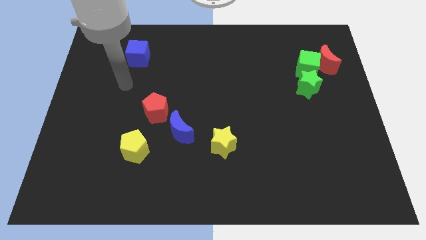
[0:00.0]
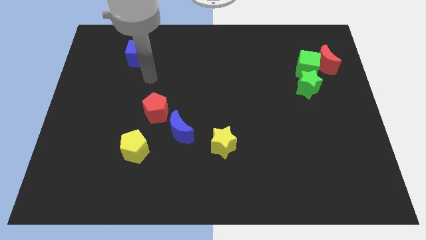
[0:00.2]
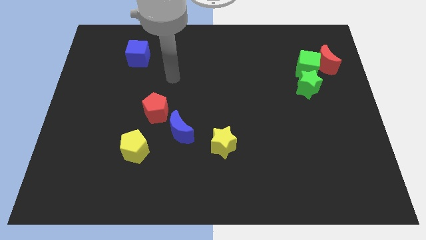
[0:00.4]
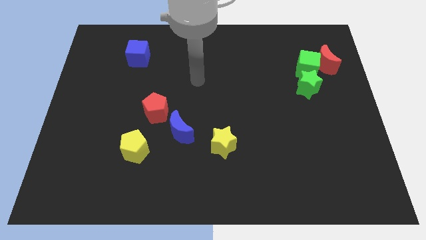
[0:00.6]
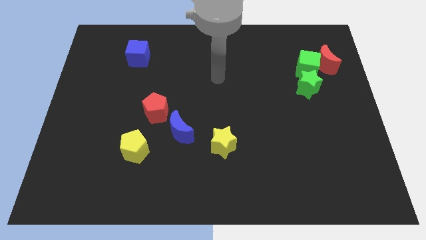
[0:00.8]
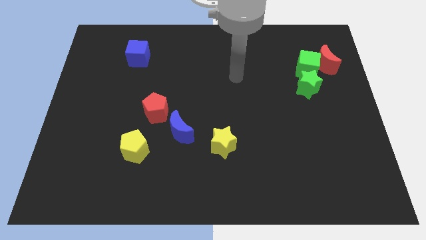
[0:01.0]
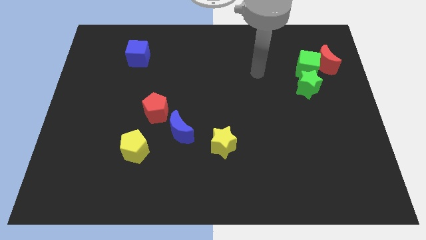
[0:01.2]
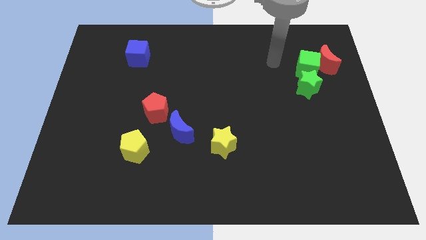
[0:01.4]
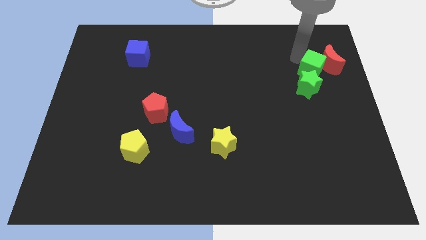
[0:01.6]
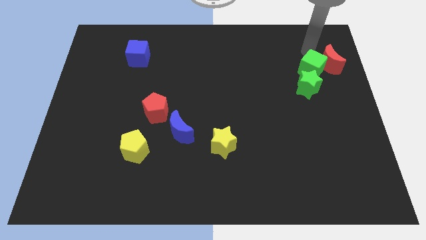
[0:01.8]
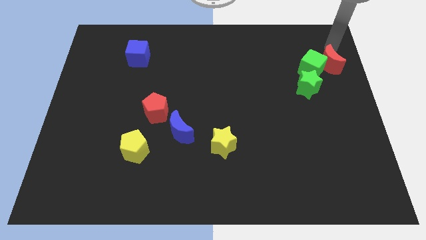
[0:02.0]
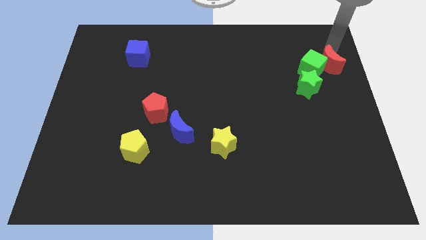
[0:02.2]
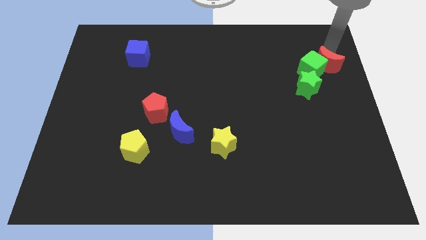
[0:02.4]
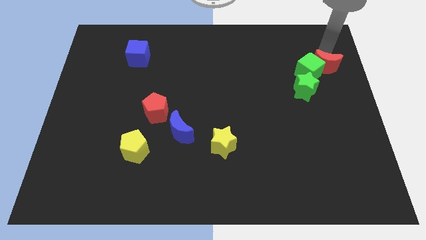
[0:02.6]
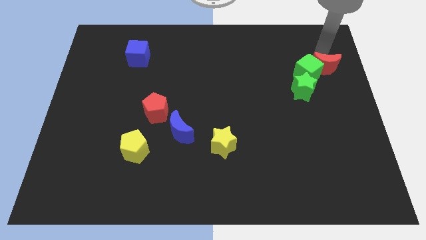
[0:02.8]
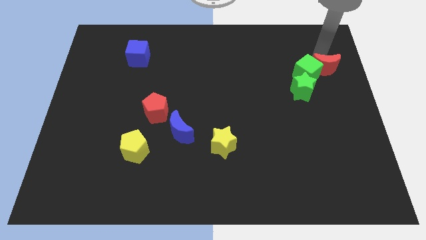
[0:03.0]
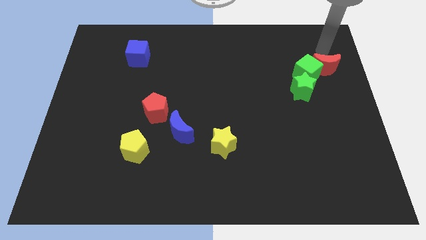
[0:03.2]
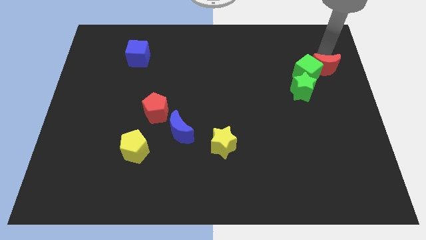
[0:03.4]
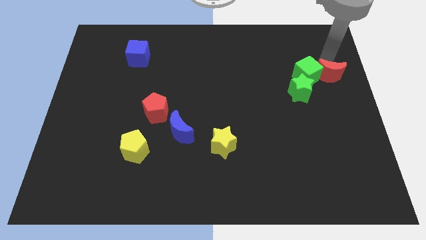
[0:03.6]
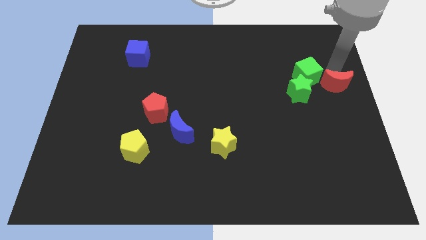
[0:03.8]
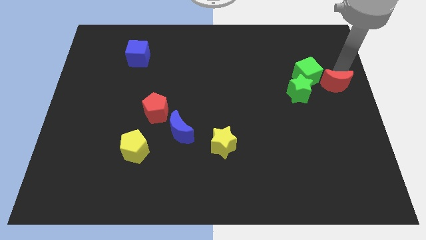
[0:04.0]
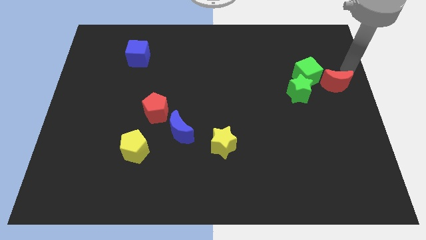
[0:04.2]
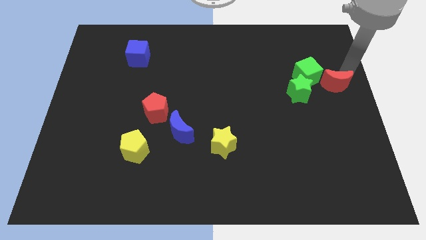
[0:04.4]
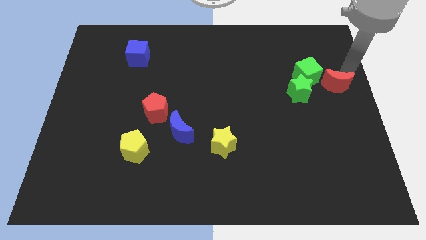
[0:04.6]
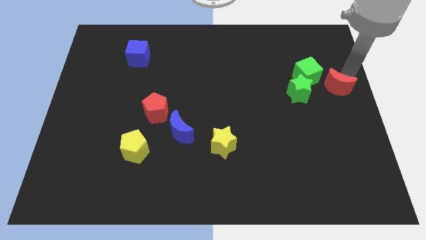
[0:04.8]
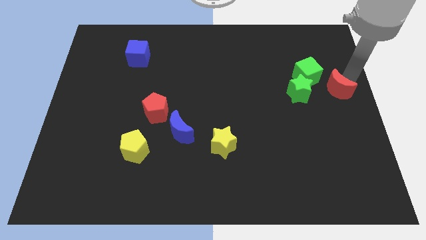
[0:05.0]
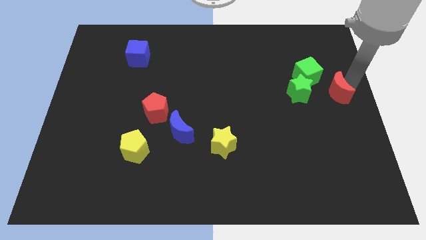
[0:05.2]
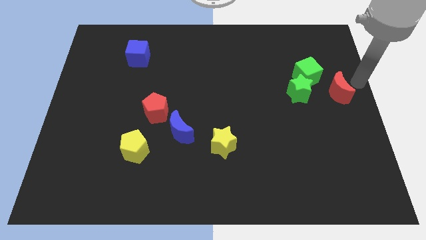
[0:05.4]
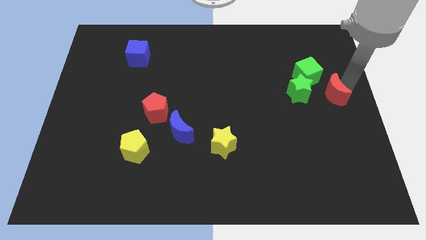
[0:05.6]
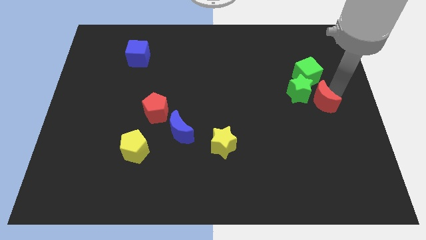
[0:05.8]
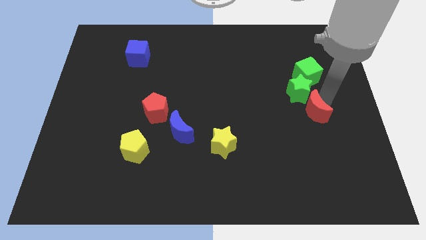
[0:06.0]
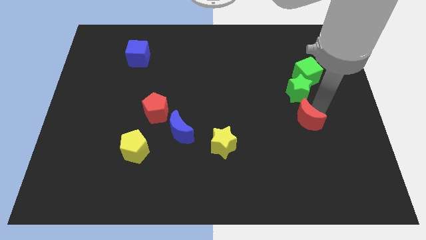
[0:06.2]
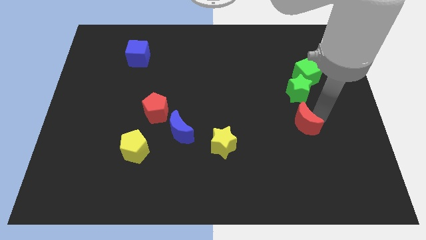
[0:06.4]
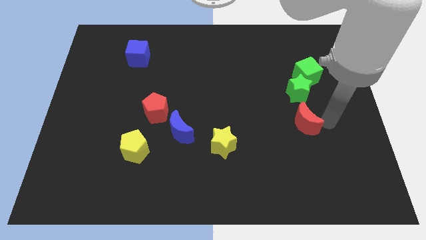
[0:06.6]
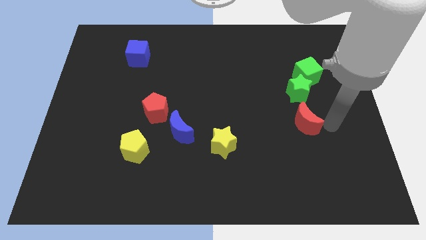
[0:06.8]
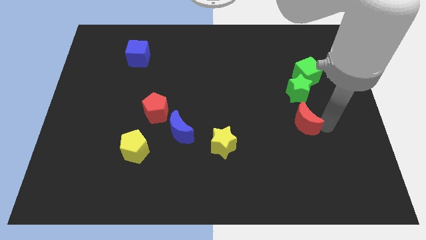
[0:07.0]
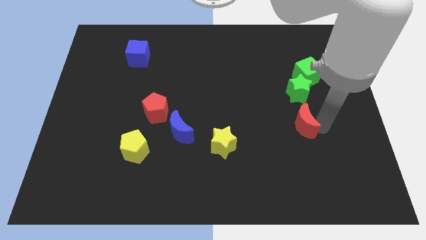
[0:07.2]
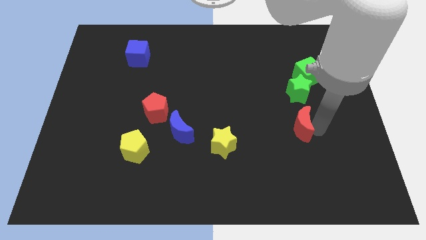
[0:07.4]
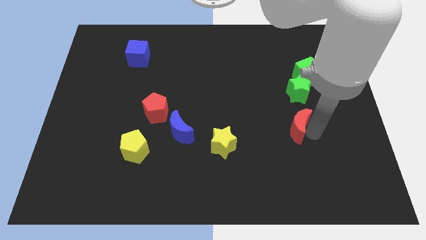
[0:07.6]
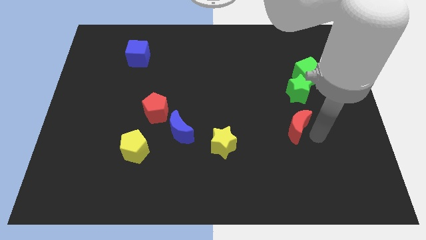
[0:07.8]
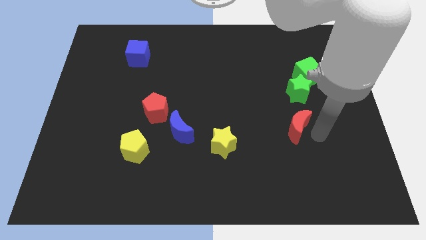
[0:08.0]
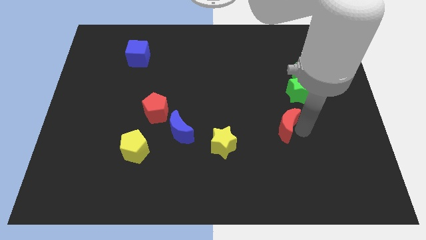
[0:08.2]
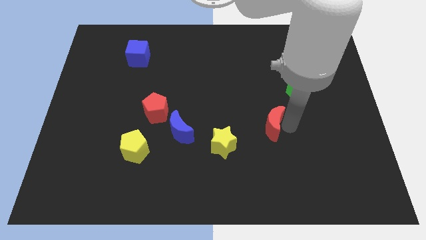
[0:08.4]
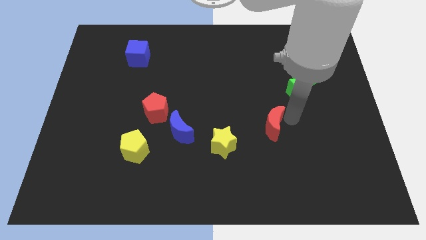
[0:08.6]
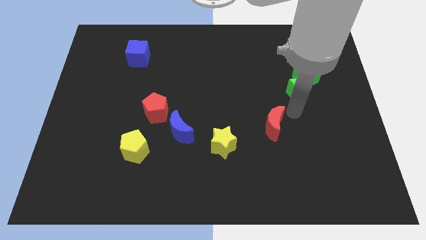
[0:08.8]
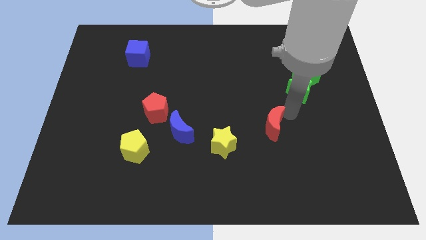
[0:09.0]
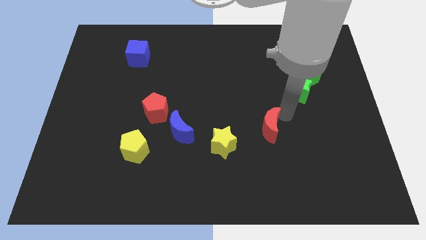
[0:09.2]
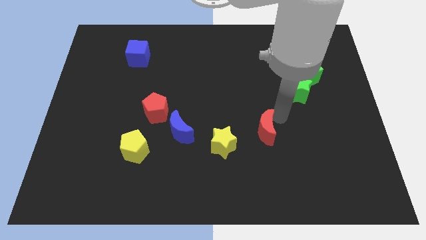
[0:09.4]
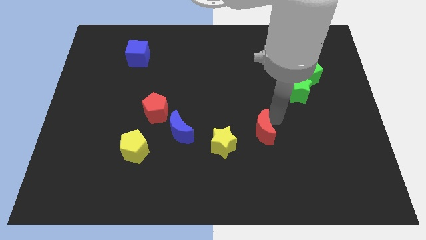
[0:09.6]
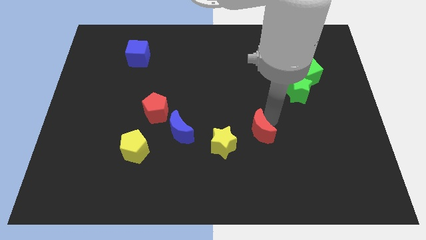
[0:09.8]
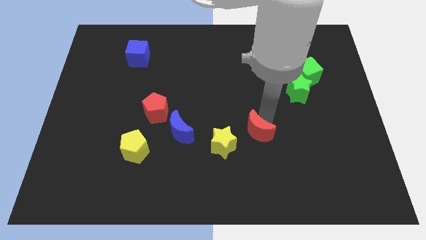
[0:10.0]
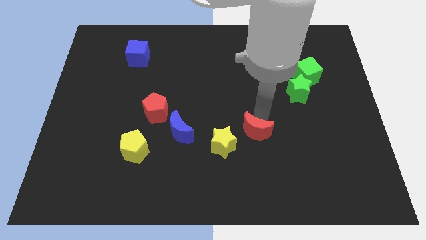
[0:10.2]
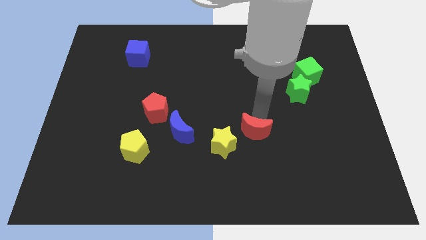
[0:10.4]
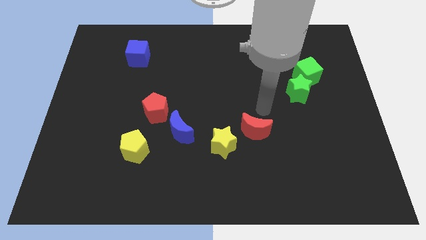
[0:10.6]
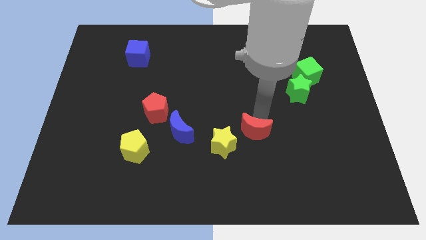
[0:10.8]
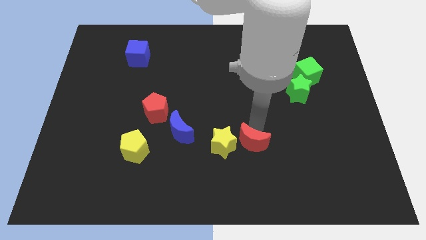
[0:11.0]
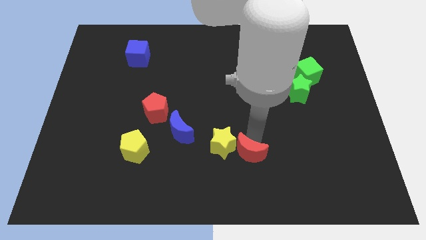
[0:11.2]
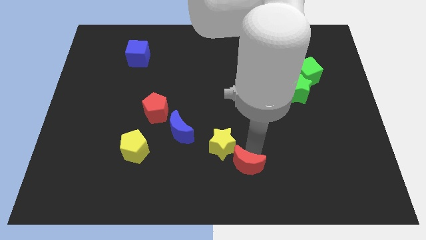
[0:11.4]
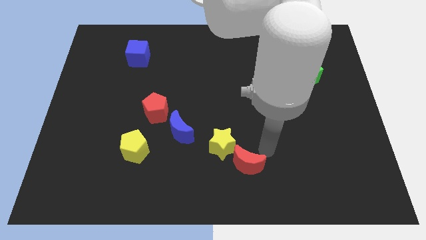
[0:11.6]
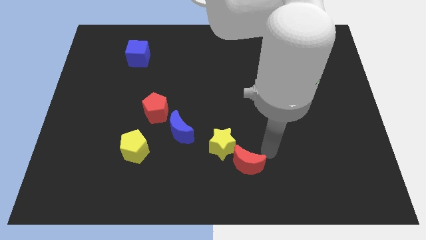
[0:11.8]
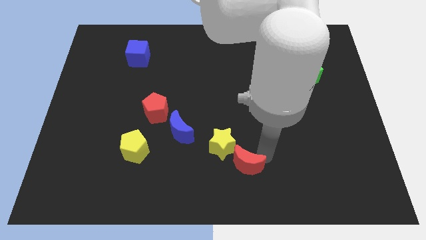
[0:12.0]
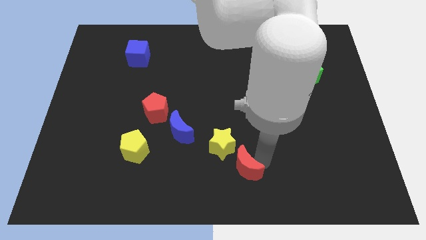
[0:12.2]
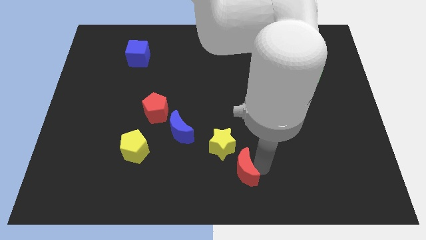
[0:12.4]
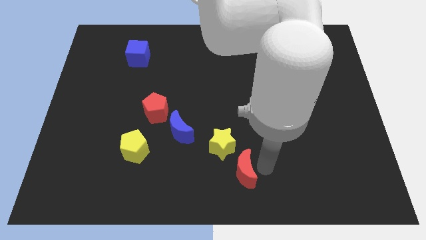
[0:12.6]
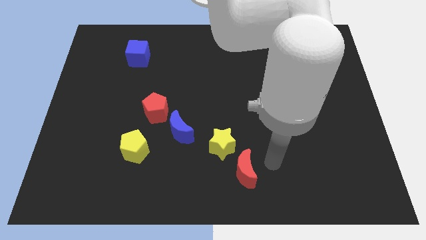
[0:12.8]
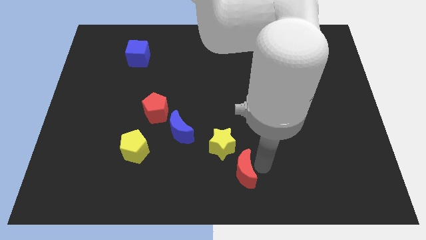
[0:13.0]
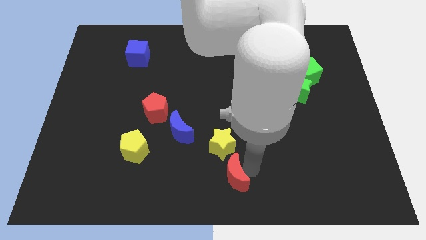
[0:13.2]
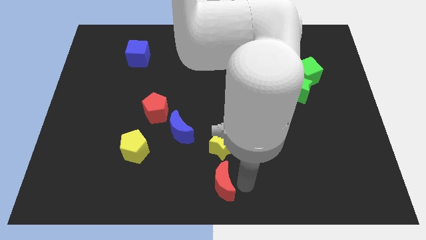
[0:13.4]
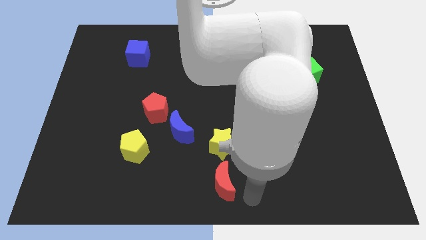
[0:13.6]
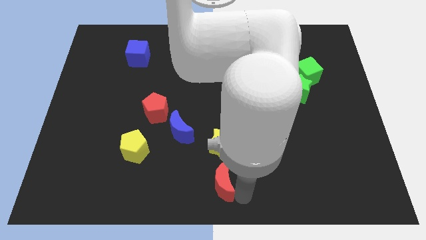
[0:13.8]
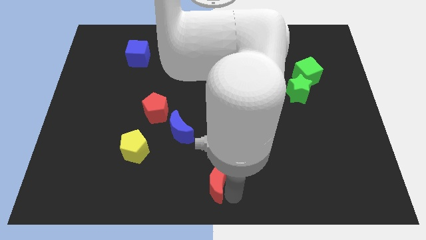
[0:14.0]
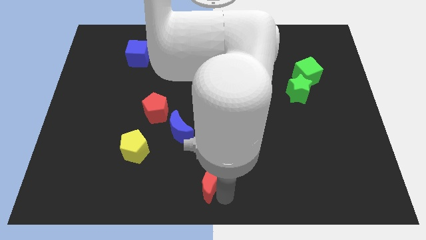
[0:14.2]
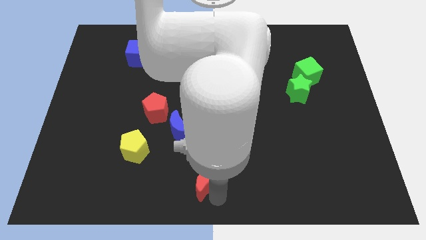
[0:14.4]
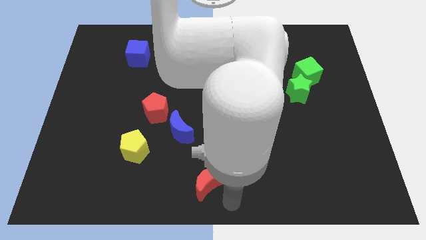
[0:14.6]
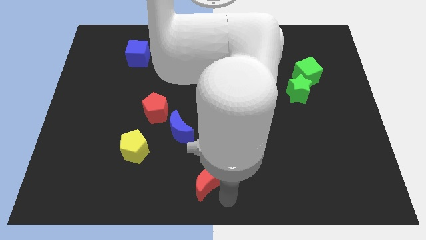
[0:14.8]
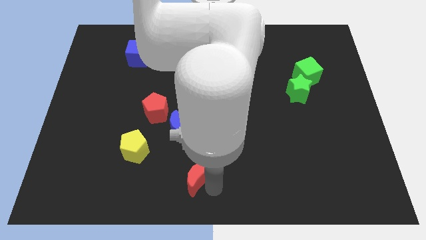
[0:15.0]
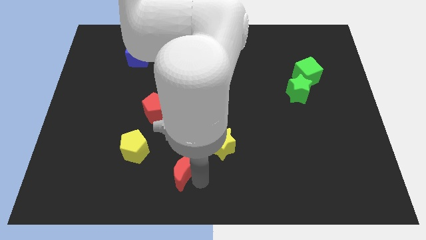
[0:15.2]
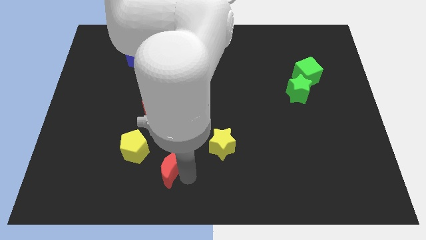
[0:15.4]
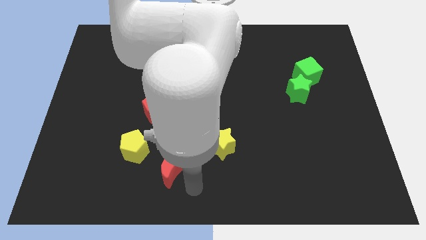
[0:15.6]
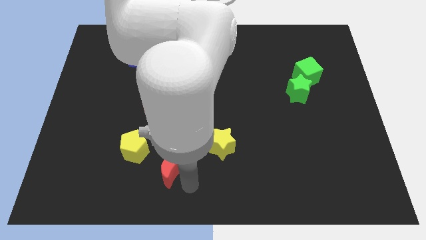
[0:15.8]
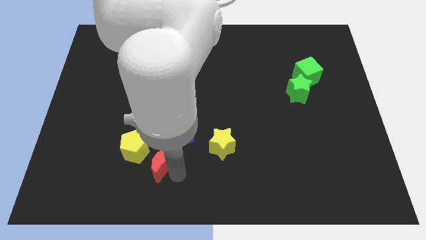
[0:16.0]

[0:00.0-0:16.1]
slide the red moon to the bottom of the red pentagon
